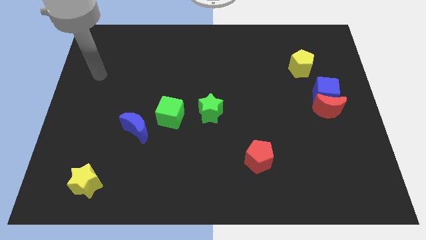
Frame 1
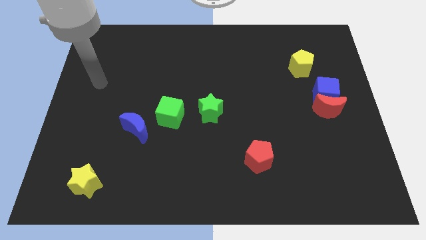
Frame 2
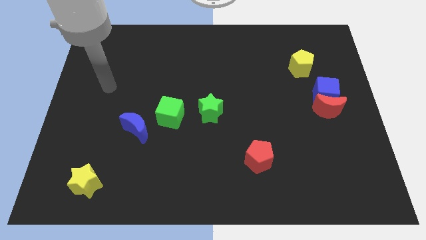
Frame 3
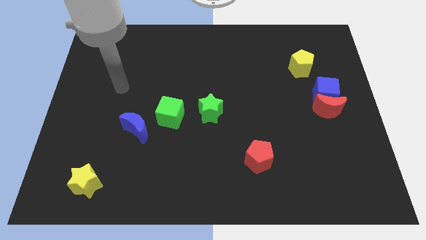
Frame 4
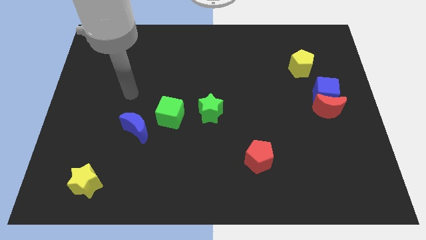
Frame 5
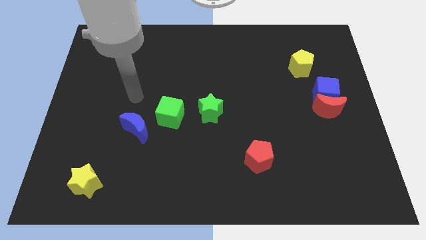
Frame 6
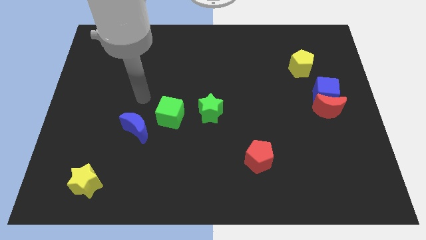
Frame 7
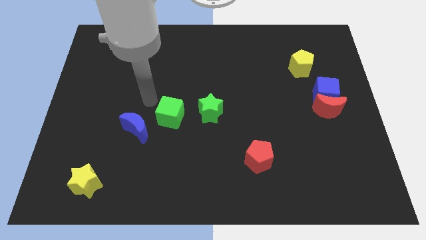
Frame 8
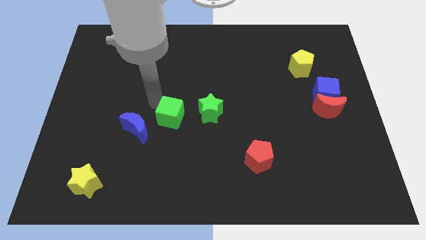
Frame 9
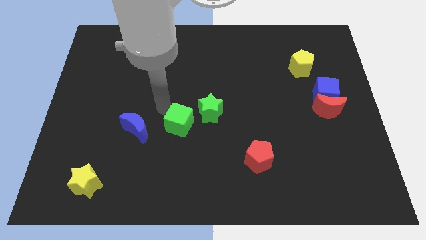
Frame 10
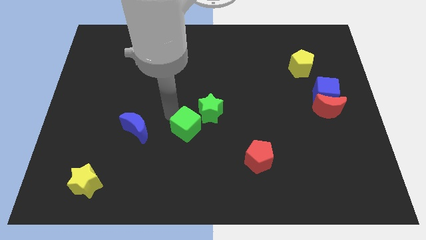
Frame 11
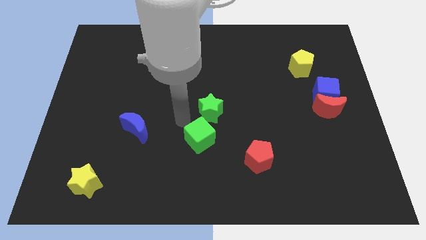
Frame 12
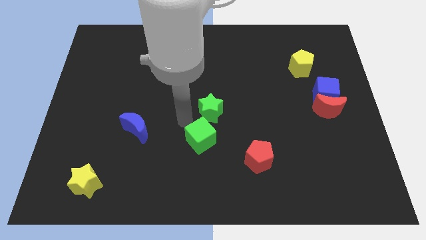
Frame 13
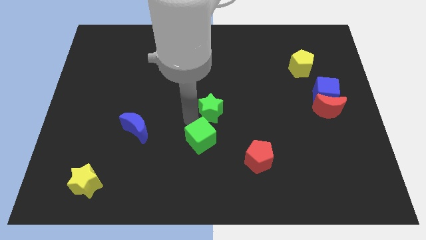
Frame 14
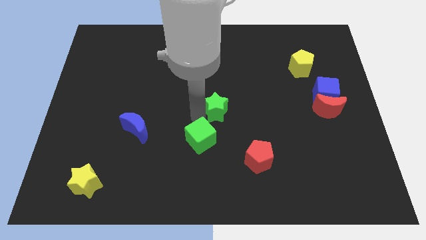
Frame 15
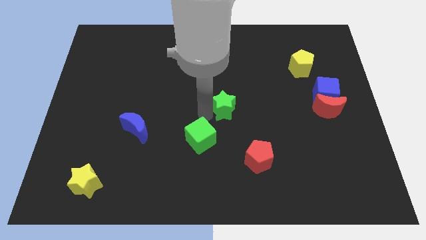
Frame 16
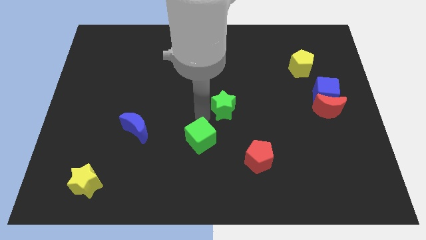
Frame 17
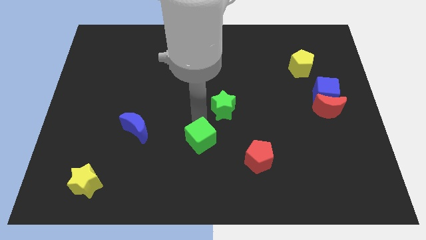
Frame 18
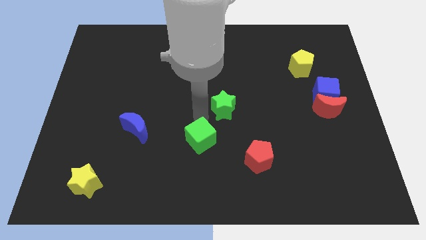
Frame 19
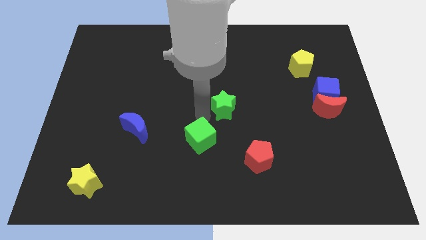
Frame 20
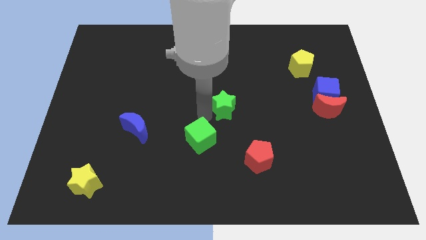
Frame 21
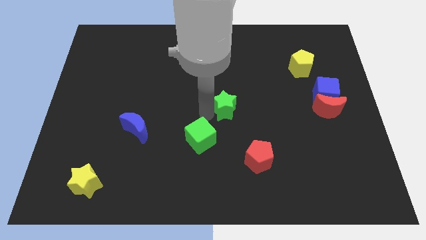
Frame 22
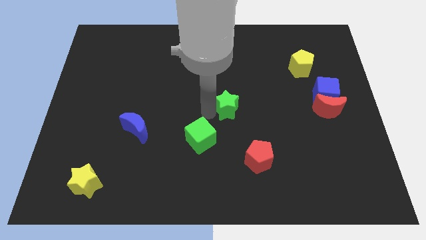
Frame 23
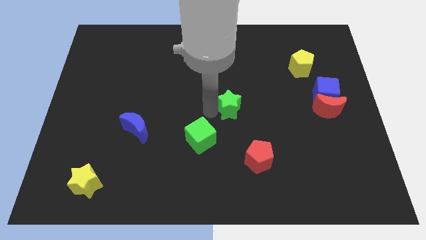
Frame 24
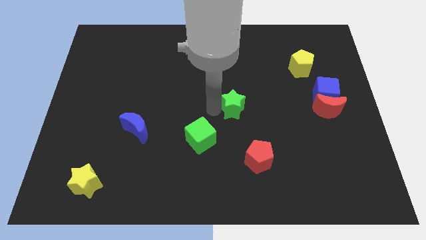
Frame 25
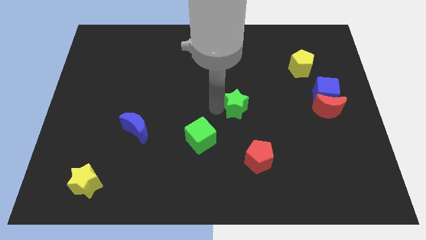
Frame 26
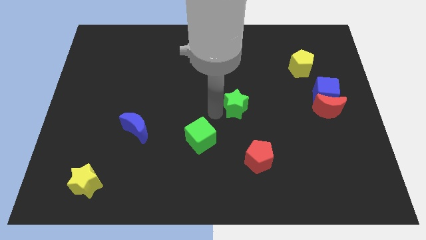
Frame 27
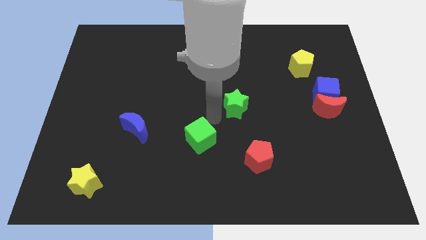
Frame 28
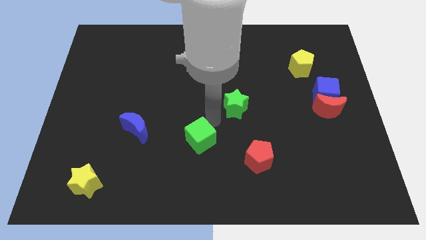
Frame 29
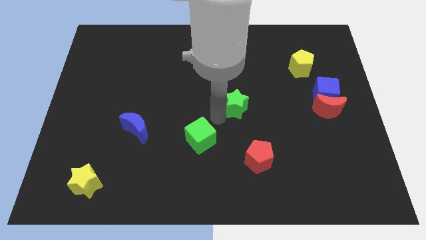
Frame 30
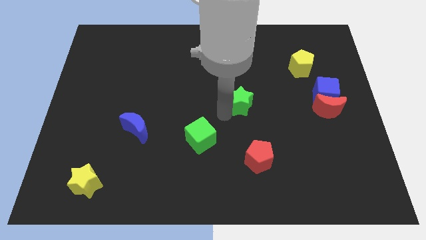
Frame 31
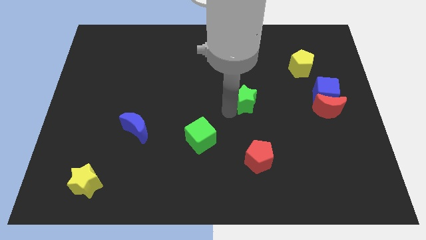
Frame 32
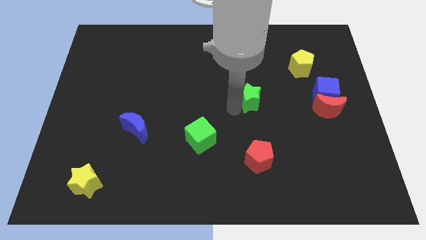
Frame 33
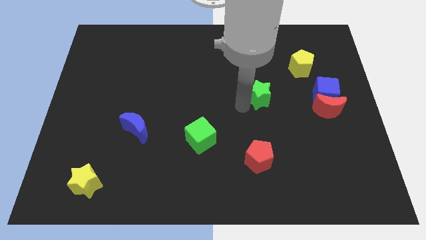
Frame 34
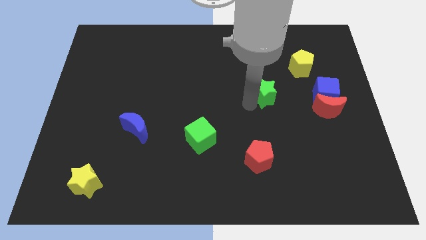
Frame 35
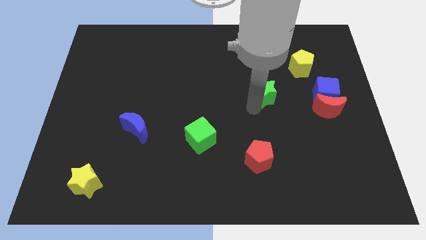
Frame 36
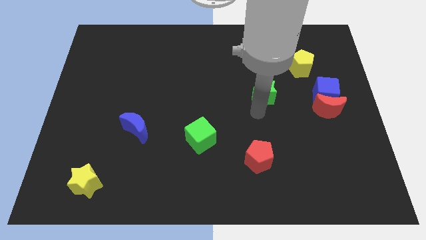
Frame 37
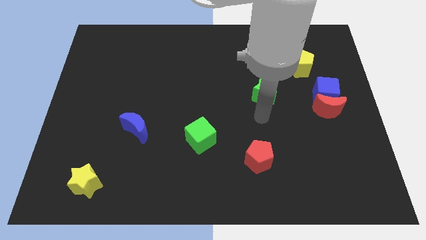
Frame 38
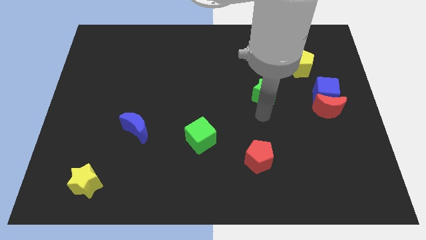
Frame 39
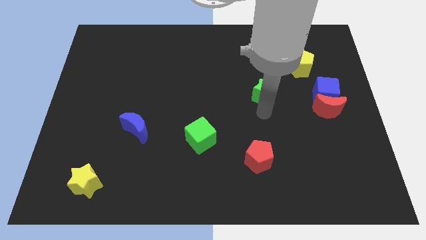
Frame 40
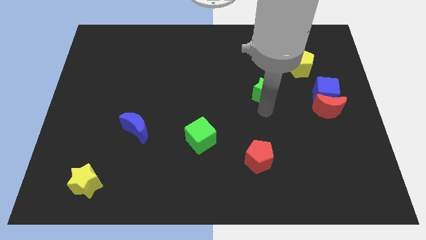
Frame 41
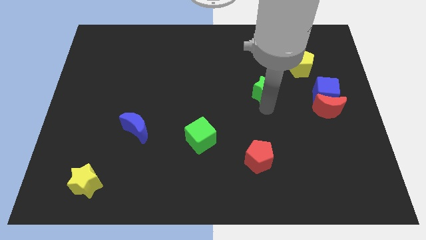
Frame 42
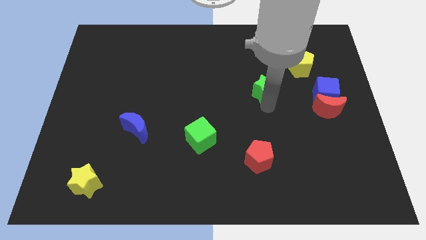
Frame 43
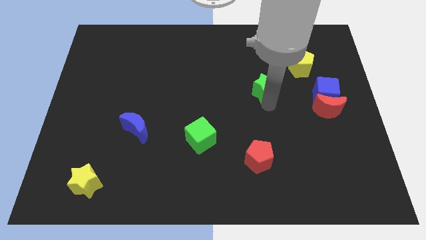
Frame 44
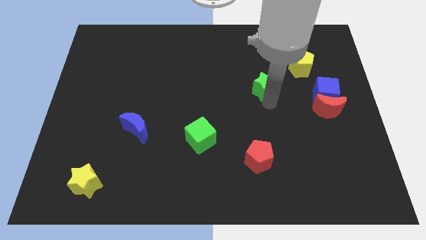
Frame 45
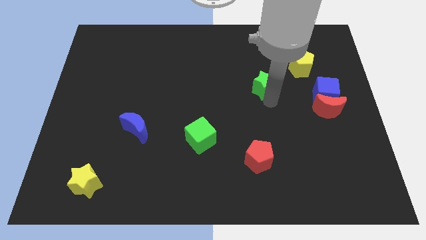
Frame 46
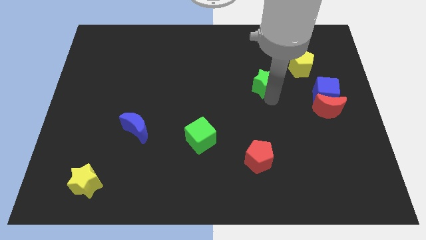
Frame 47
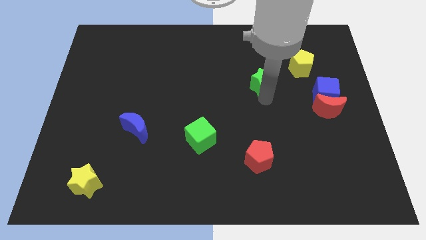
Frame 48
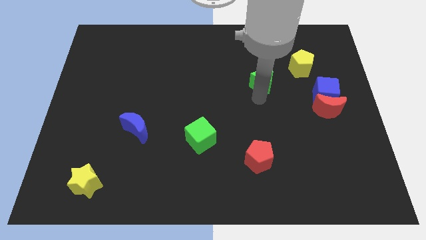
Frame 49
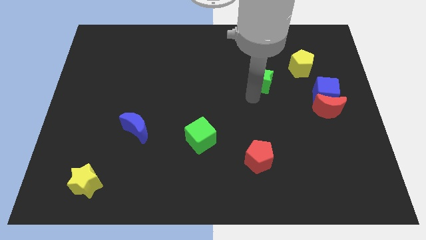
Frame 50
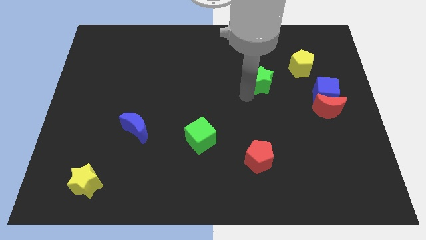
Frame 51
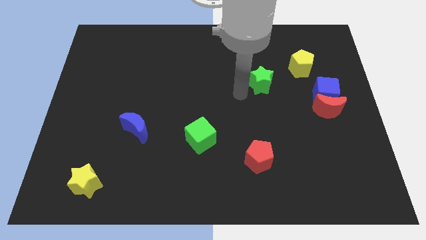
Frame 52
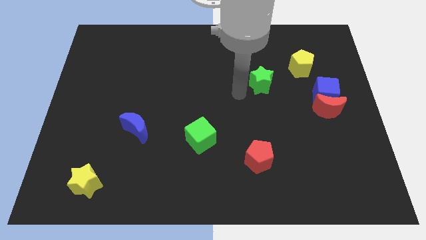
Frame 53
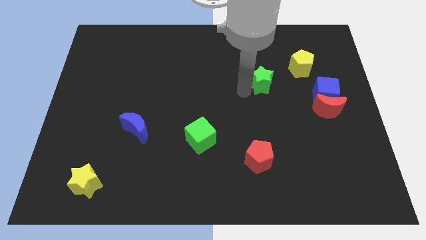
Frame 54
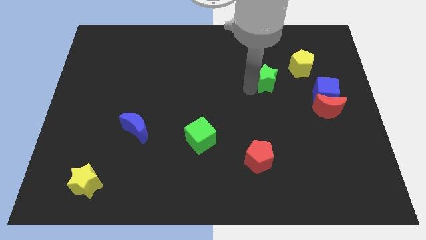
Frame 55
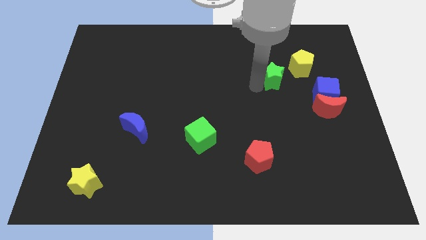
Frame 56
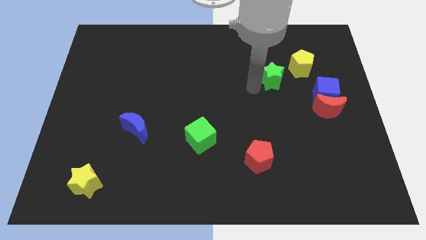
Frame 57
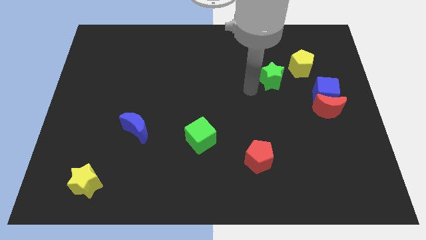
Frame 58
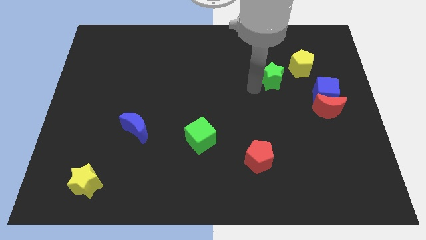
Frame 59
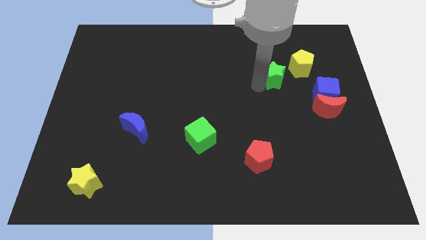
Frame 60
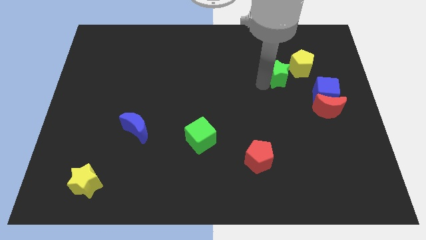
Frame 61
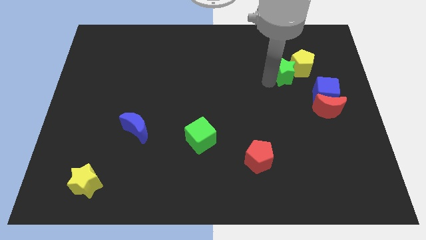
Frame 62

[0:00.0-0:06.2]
put the green star to the yellow pentagon
